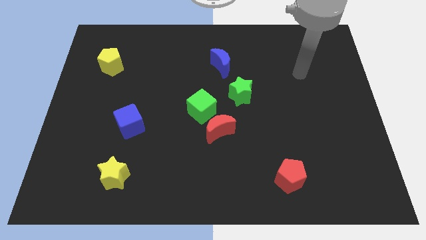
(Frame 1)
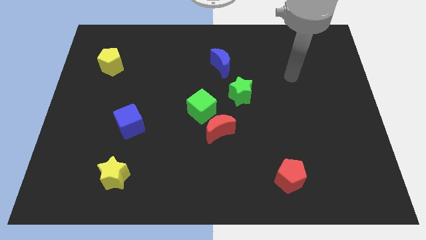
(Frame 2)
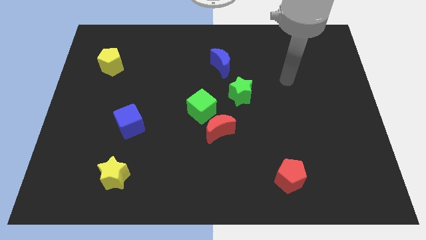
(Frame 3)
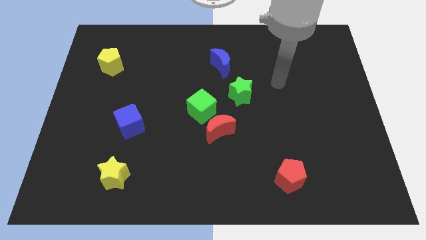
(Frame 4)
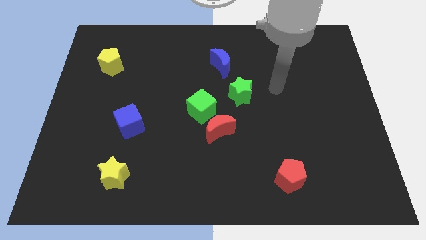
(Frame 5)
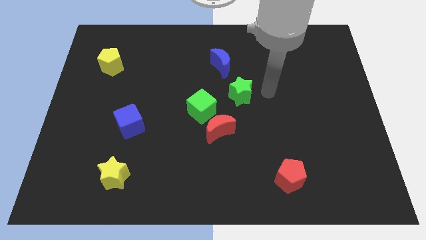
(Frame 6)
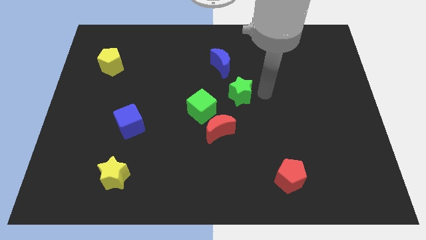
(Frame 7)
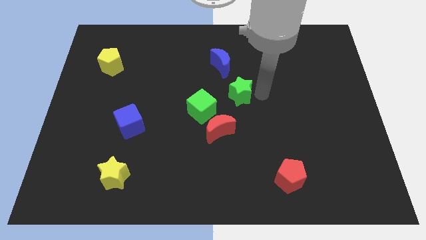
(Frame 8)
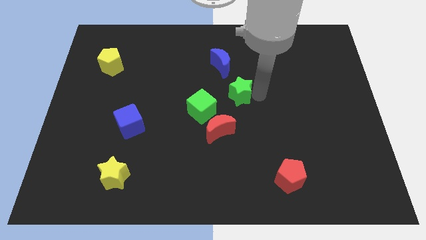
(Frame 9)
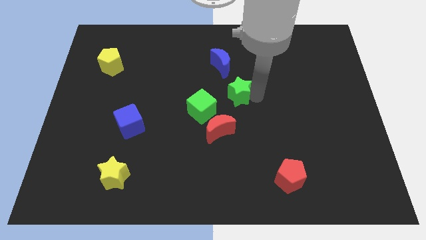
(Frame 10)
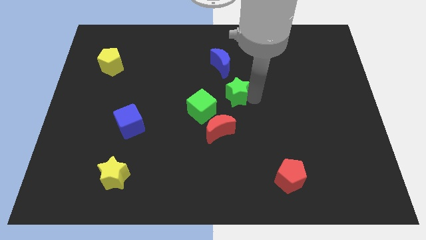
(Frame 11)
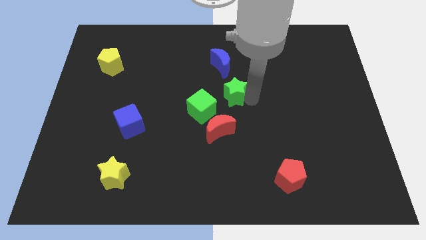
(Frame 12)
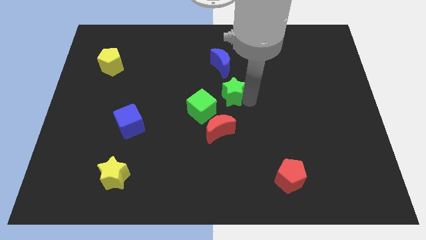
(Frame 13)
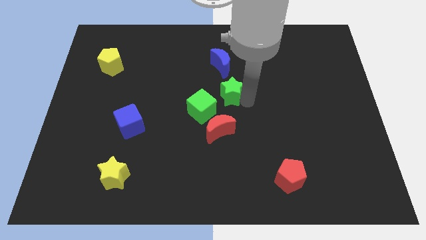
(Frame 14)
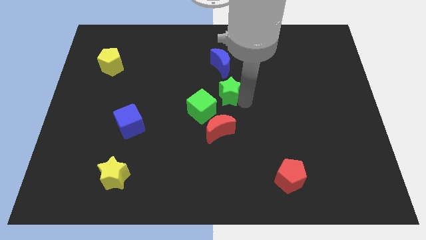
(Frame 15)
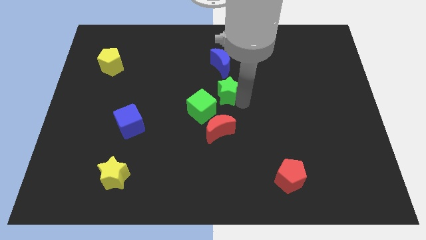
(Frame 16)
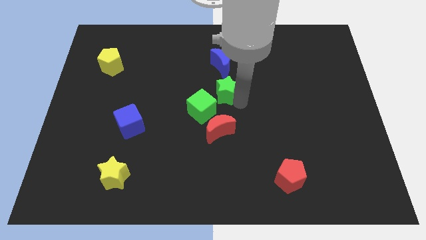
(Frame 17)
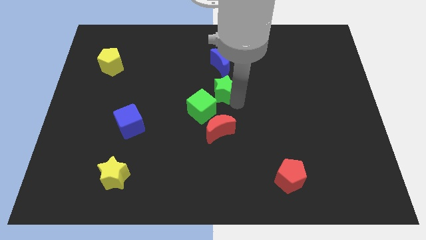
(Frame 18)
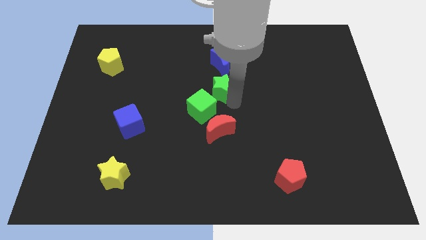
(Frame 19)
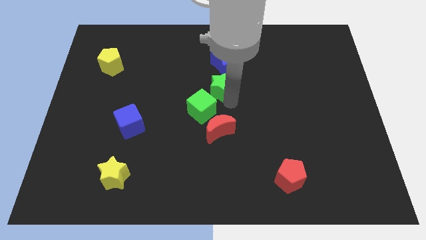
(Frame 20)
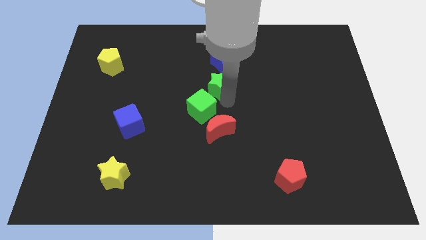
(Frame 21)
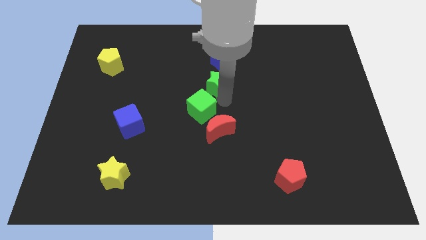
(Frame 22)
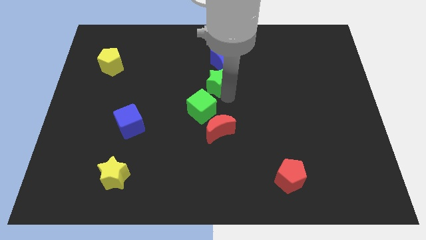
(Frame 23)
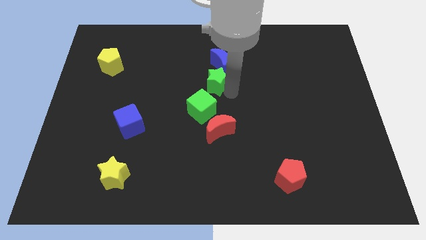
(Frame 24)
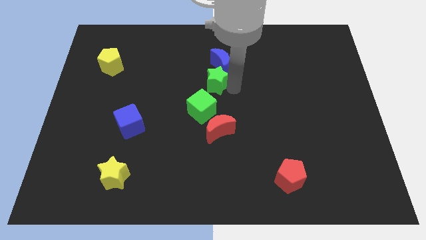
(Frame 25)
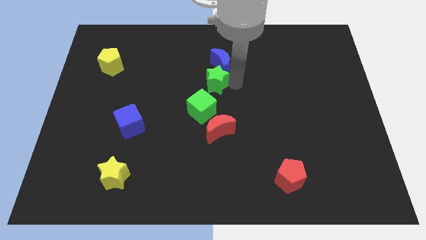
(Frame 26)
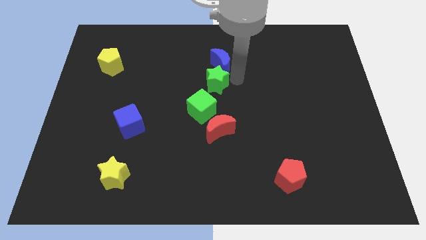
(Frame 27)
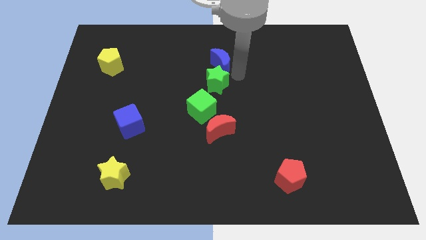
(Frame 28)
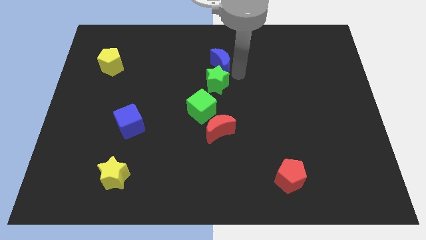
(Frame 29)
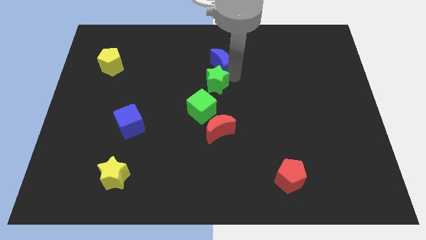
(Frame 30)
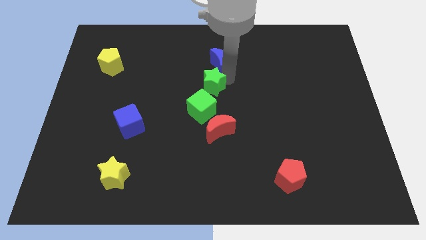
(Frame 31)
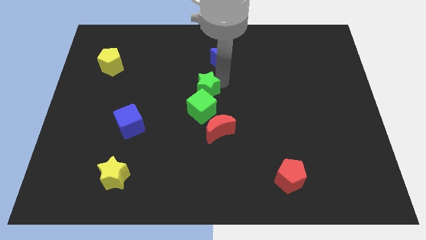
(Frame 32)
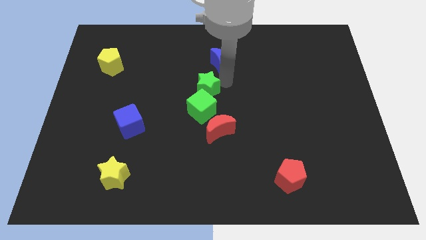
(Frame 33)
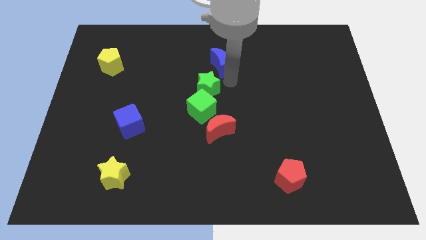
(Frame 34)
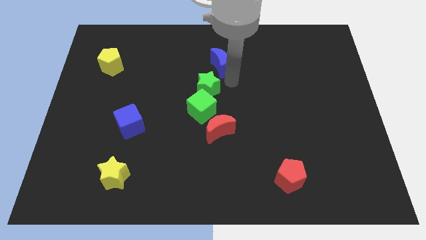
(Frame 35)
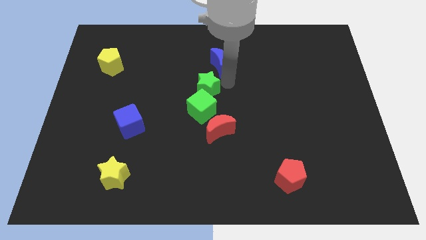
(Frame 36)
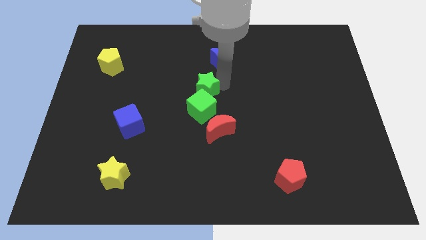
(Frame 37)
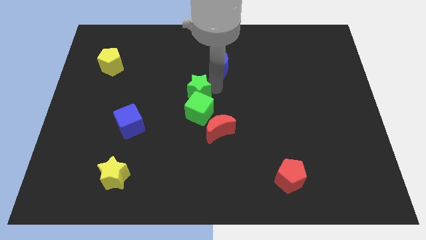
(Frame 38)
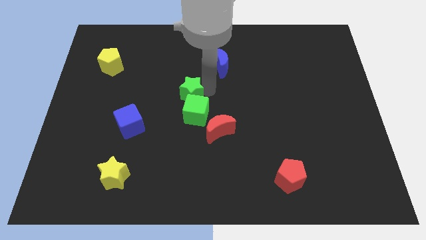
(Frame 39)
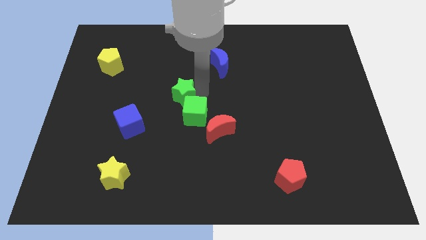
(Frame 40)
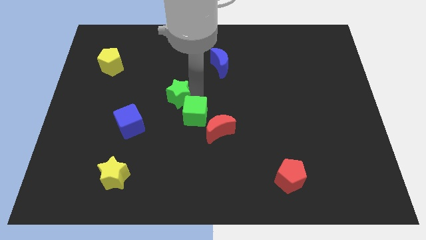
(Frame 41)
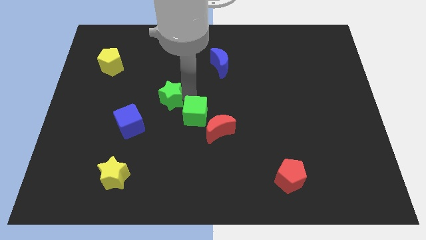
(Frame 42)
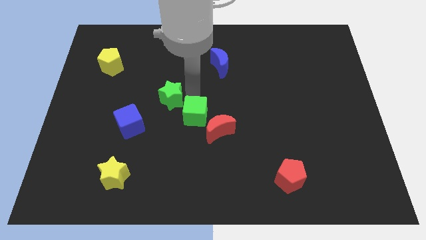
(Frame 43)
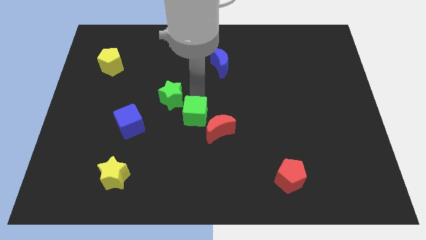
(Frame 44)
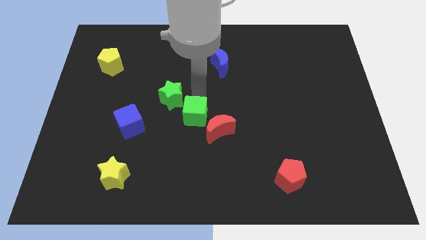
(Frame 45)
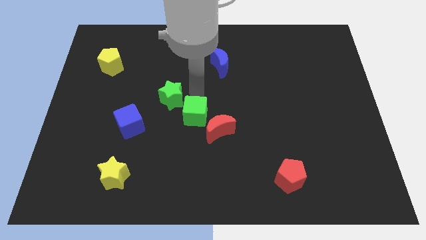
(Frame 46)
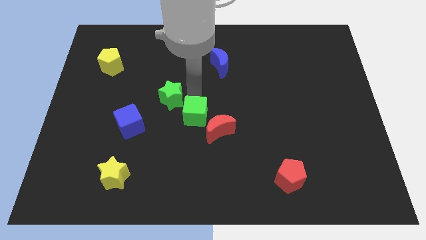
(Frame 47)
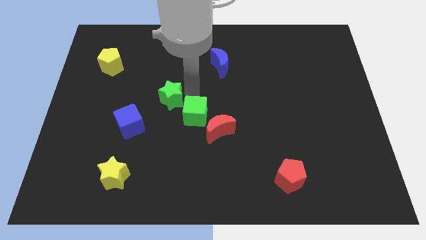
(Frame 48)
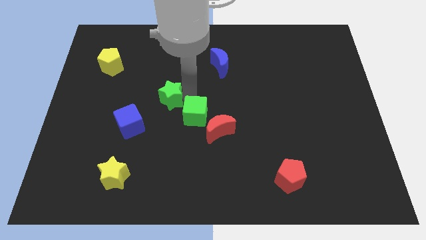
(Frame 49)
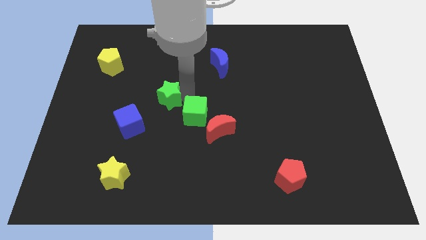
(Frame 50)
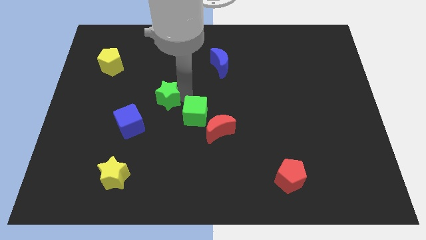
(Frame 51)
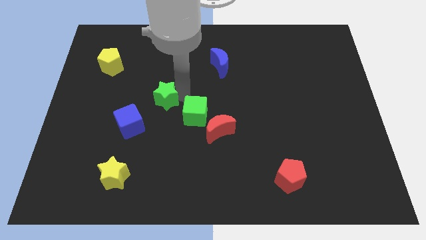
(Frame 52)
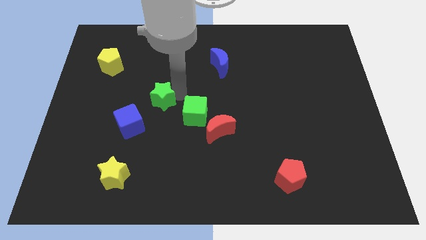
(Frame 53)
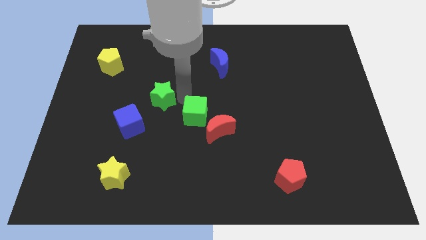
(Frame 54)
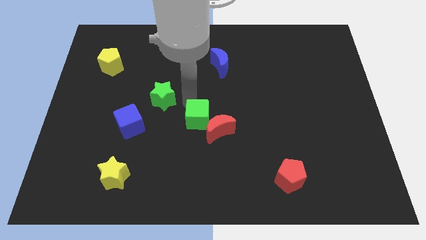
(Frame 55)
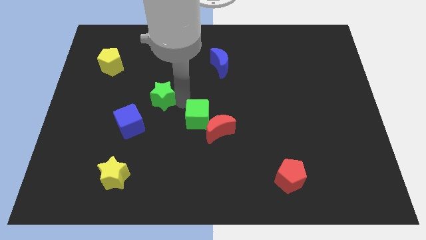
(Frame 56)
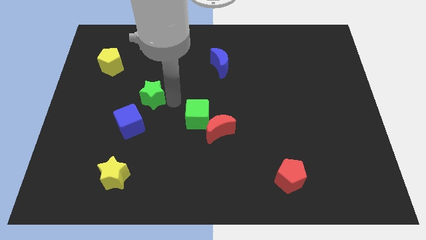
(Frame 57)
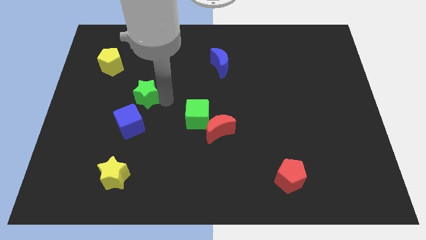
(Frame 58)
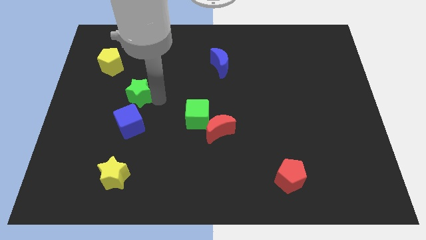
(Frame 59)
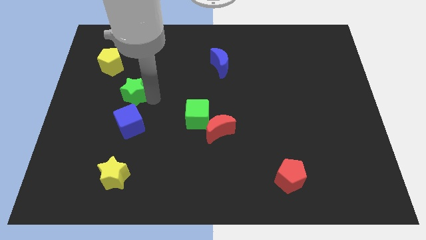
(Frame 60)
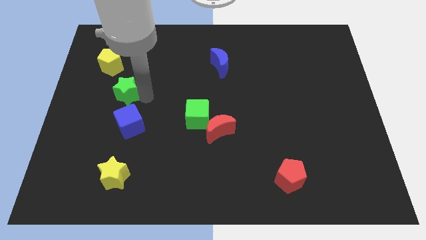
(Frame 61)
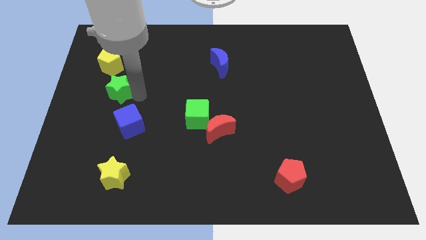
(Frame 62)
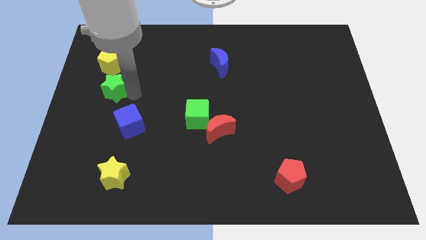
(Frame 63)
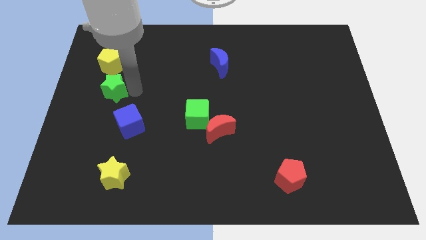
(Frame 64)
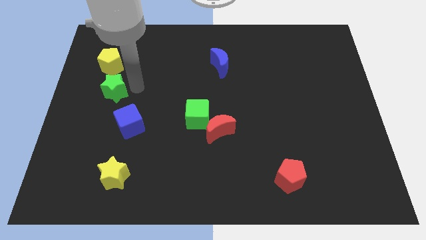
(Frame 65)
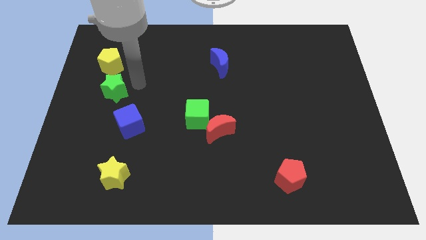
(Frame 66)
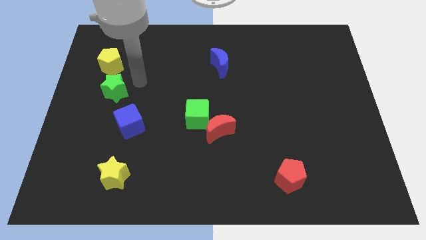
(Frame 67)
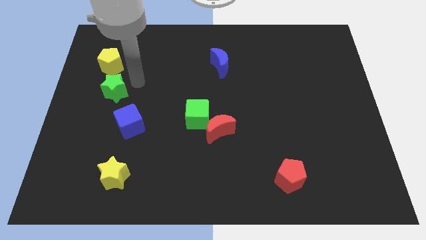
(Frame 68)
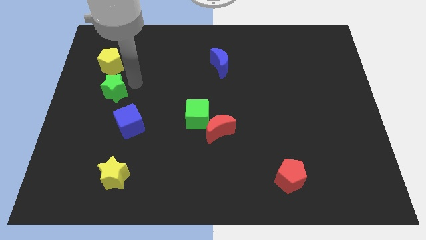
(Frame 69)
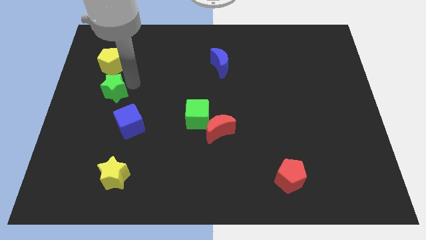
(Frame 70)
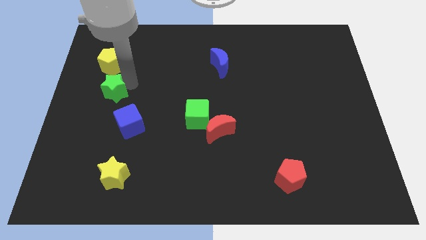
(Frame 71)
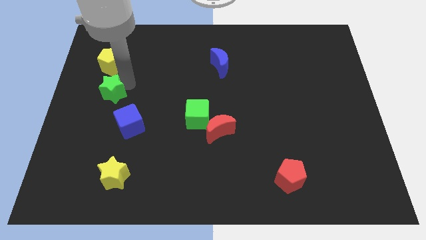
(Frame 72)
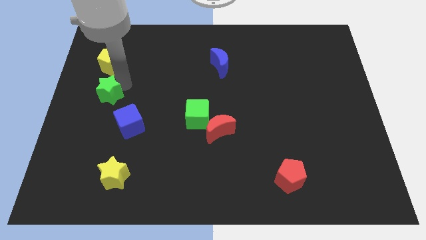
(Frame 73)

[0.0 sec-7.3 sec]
move the green star to the left side of the board
